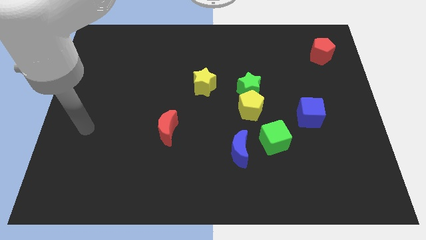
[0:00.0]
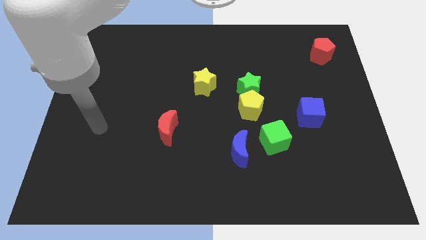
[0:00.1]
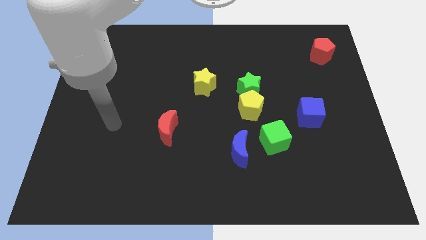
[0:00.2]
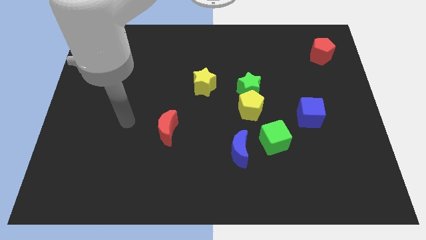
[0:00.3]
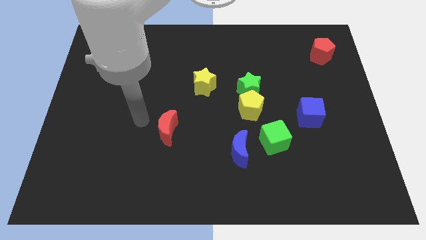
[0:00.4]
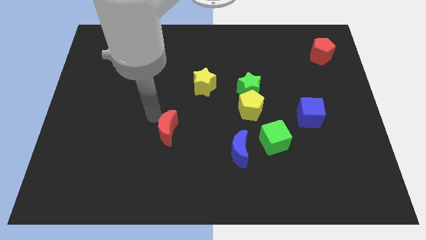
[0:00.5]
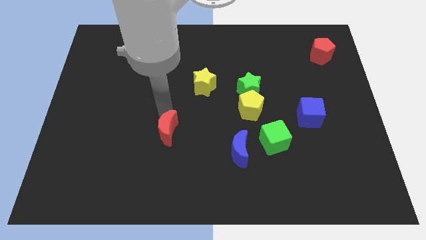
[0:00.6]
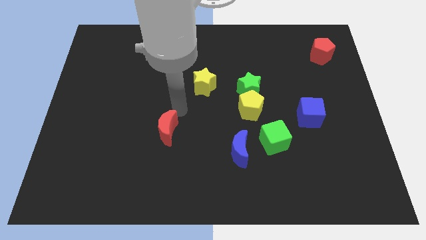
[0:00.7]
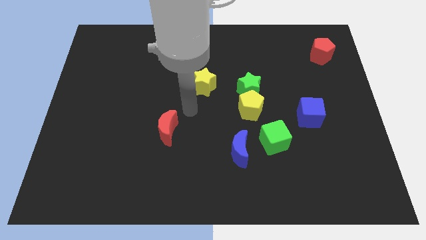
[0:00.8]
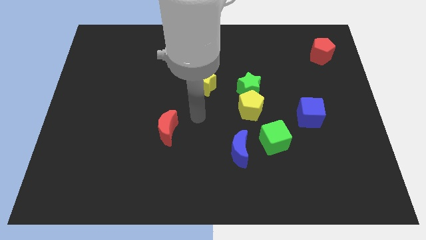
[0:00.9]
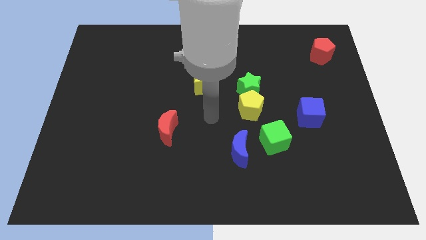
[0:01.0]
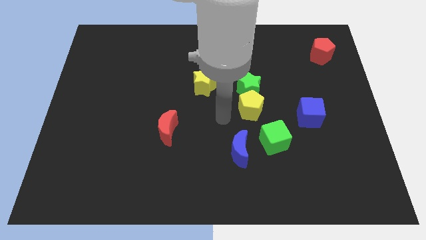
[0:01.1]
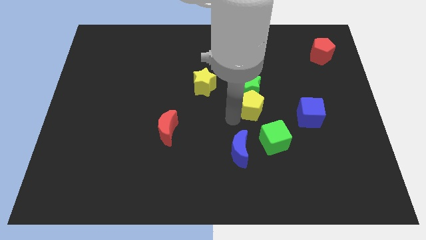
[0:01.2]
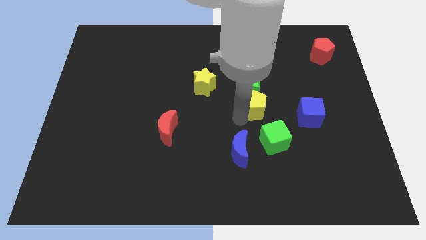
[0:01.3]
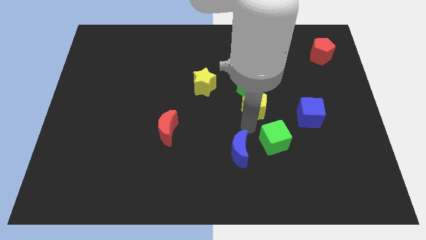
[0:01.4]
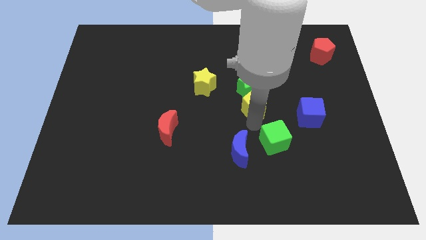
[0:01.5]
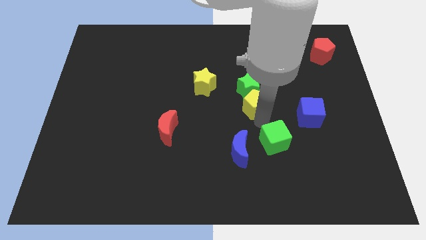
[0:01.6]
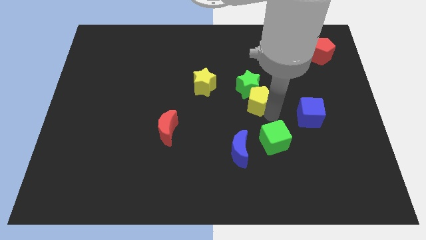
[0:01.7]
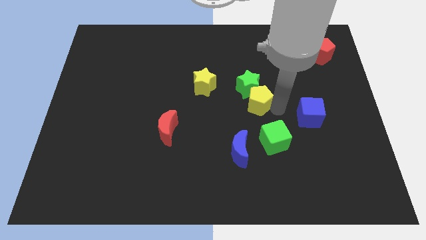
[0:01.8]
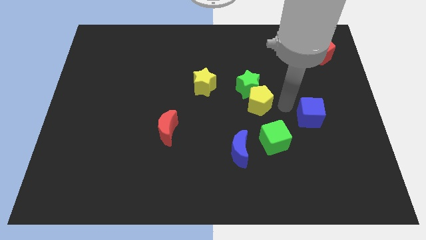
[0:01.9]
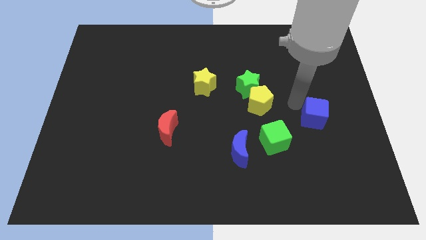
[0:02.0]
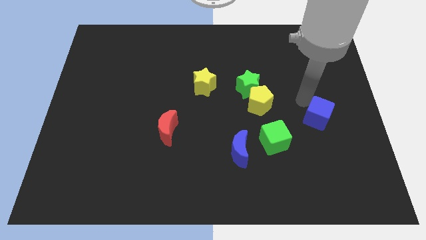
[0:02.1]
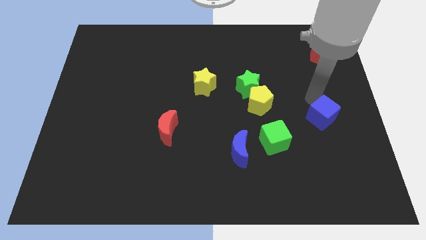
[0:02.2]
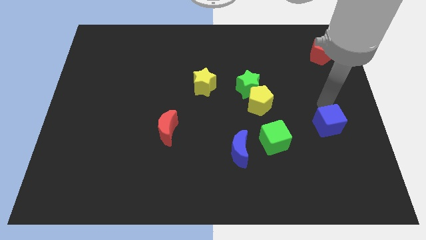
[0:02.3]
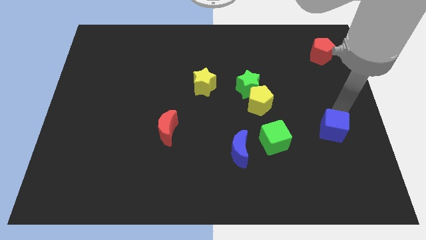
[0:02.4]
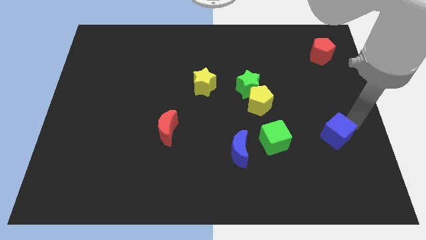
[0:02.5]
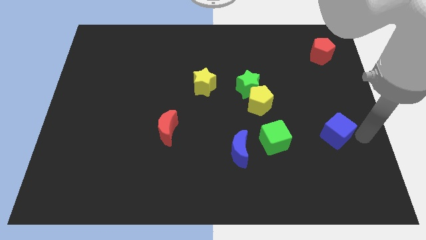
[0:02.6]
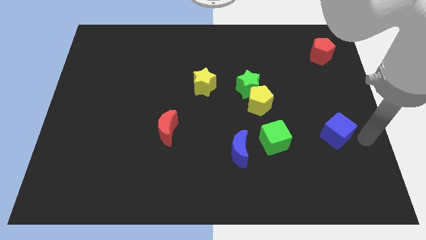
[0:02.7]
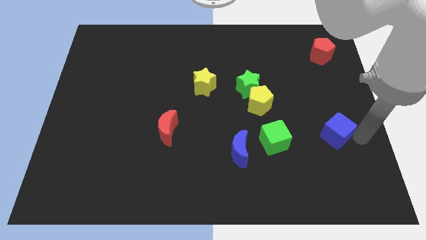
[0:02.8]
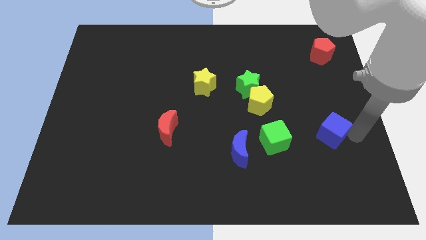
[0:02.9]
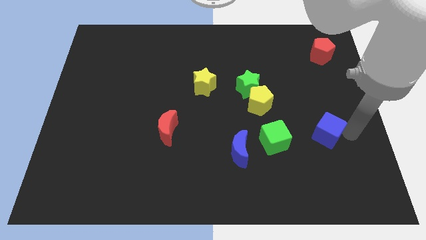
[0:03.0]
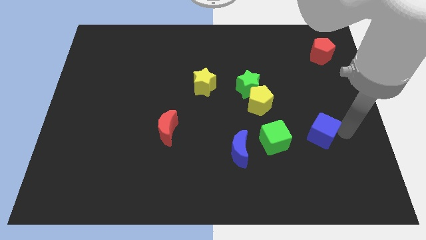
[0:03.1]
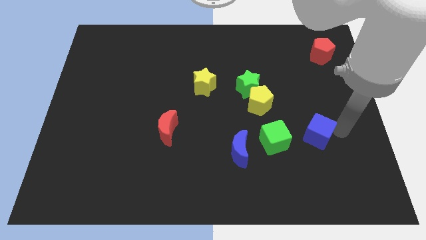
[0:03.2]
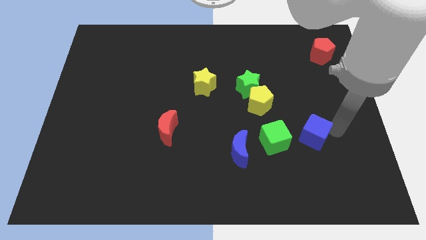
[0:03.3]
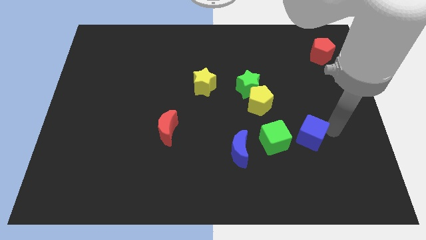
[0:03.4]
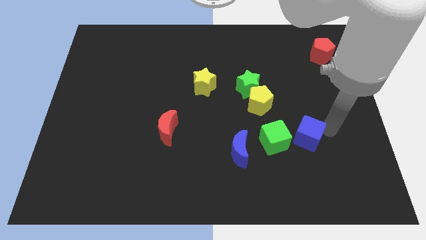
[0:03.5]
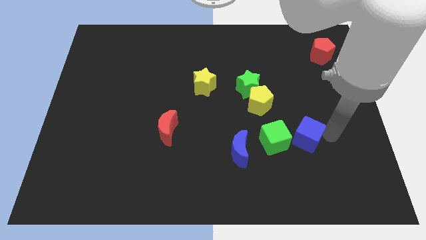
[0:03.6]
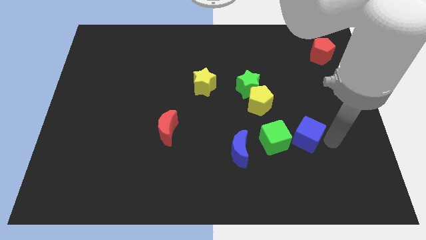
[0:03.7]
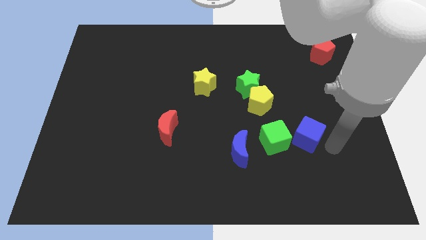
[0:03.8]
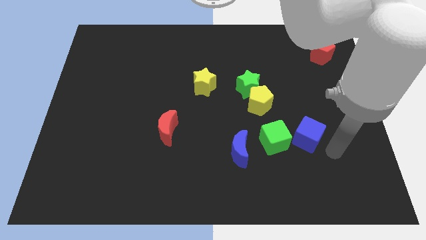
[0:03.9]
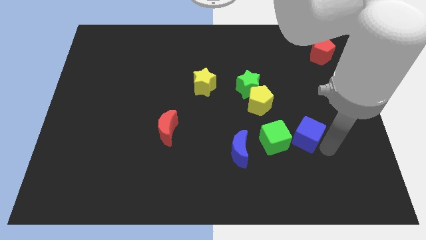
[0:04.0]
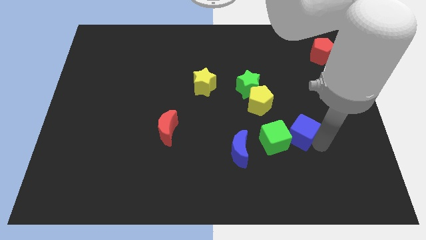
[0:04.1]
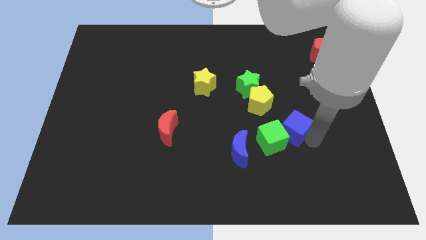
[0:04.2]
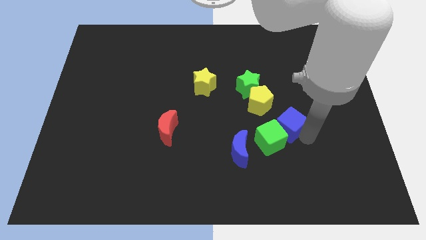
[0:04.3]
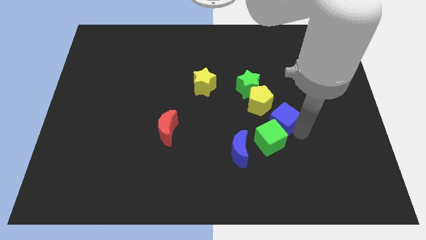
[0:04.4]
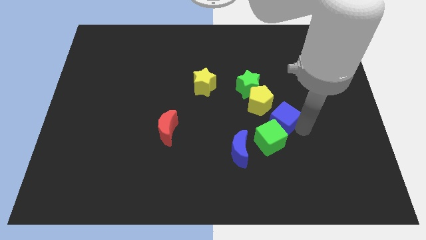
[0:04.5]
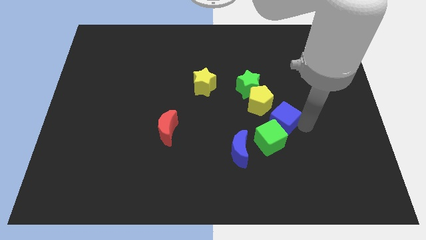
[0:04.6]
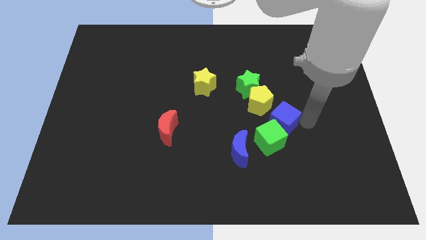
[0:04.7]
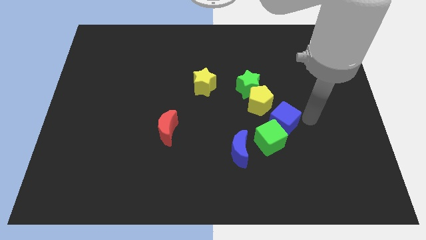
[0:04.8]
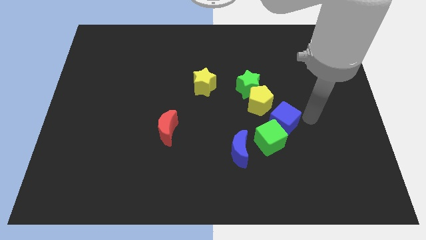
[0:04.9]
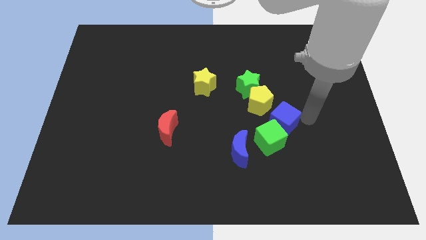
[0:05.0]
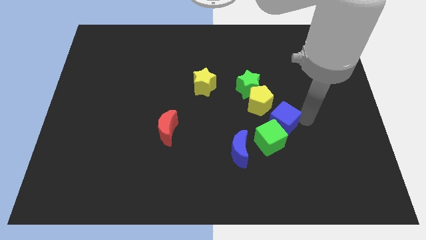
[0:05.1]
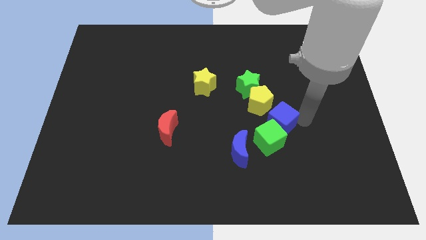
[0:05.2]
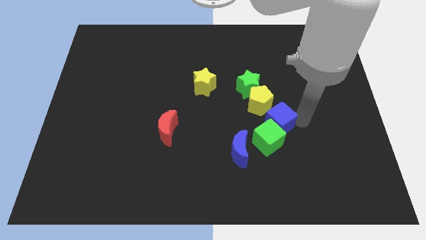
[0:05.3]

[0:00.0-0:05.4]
push the blue cube somewhat to the left

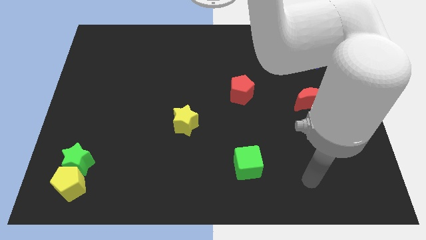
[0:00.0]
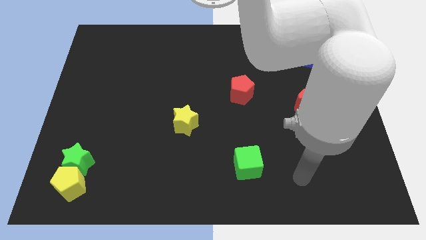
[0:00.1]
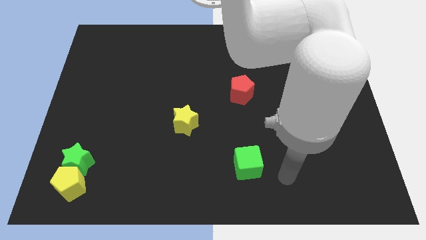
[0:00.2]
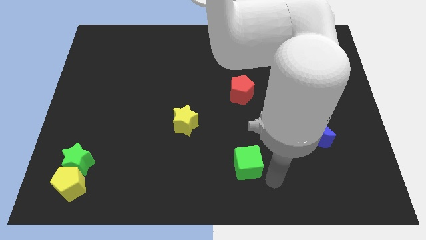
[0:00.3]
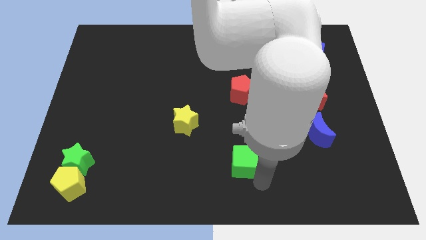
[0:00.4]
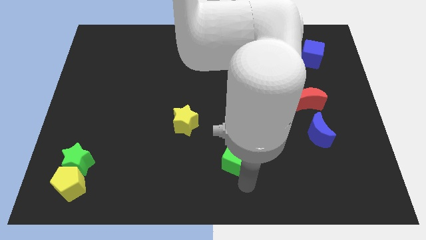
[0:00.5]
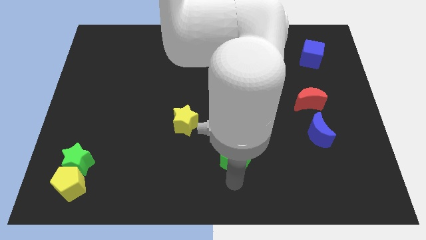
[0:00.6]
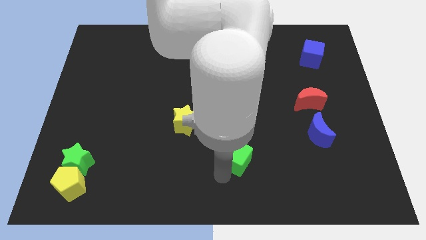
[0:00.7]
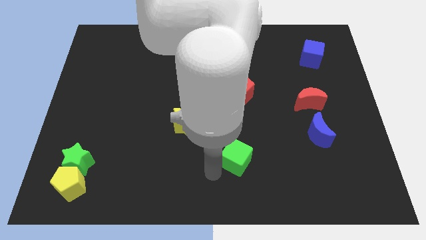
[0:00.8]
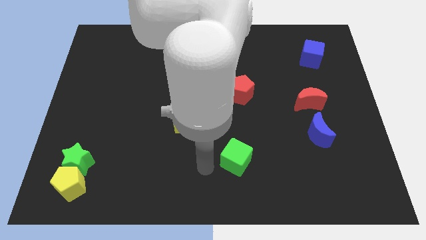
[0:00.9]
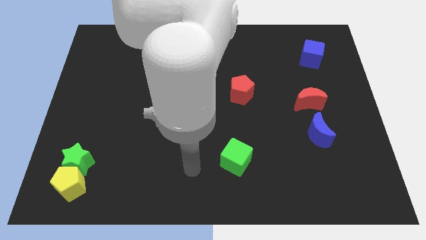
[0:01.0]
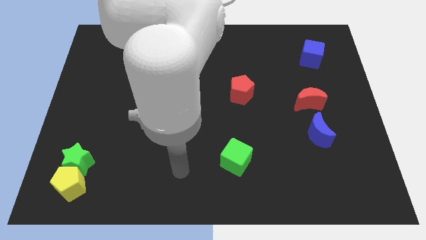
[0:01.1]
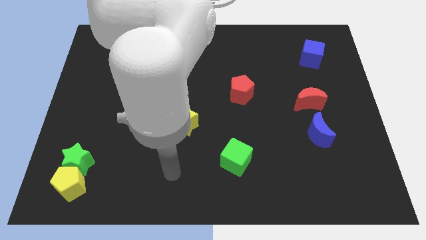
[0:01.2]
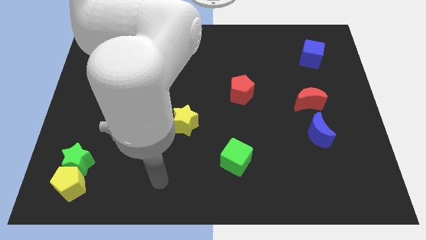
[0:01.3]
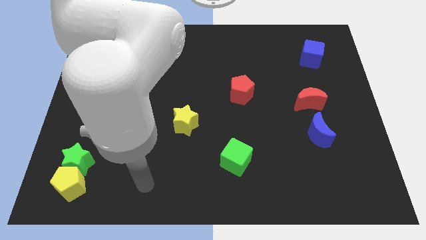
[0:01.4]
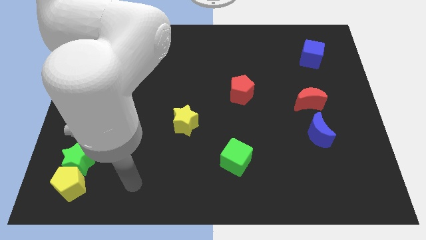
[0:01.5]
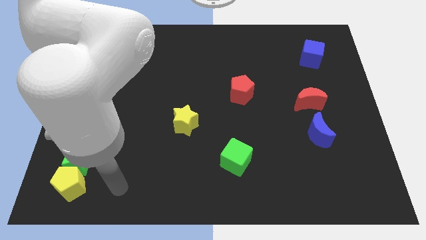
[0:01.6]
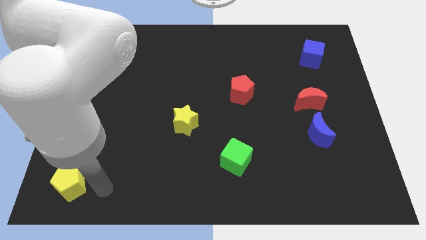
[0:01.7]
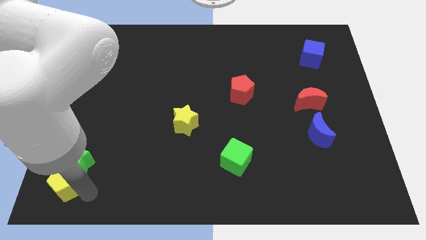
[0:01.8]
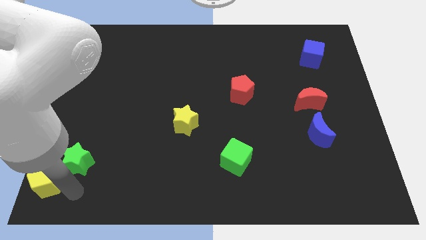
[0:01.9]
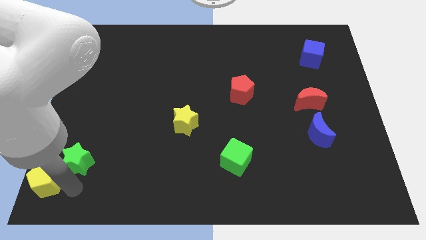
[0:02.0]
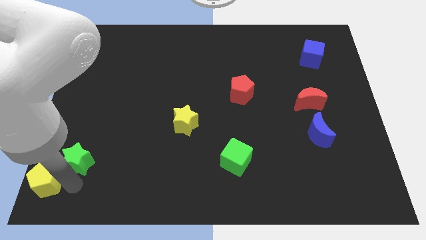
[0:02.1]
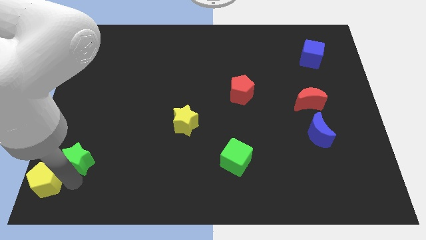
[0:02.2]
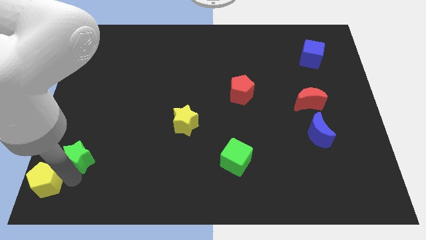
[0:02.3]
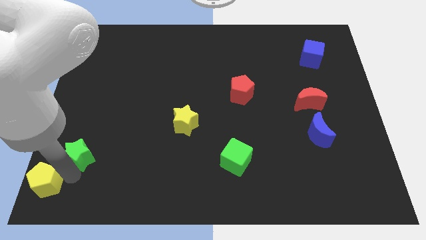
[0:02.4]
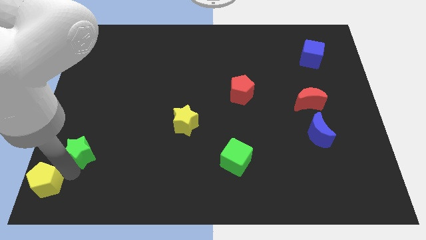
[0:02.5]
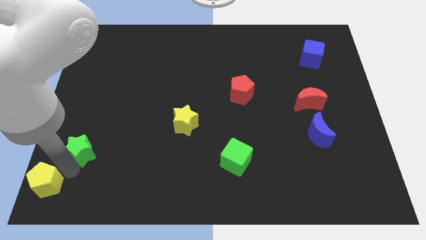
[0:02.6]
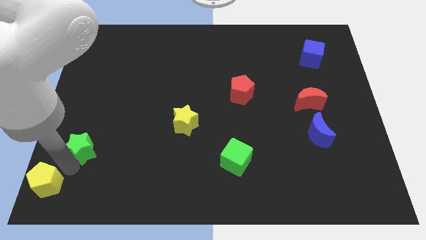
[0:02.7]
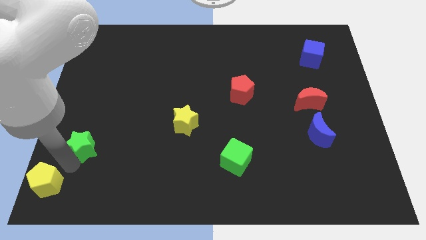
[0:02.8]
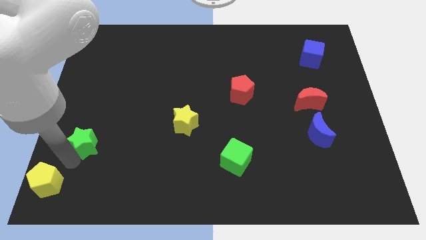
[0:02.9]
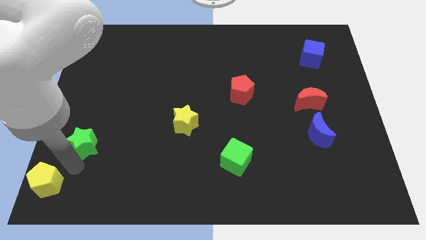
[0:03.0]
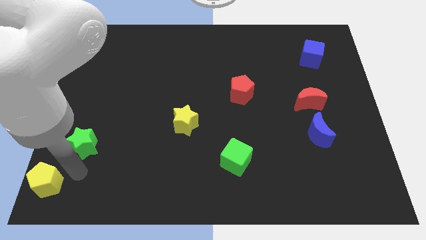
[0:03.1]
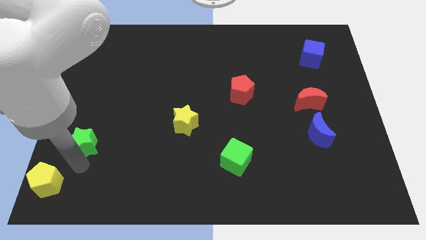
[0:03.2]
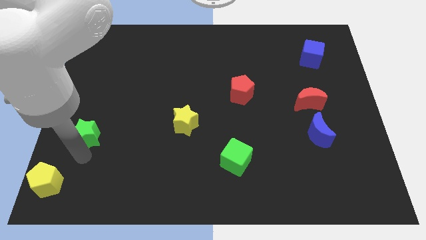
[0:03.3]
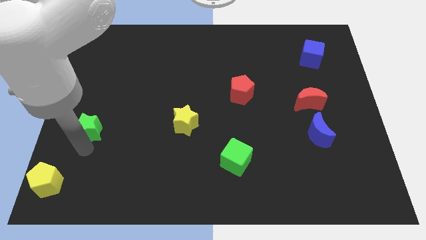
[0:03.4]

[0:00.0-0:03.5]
slightly slide the green star up
